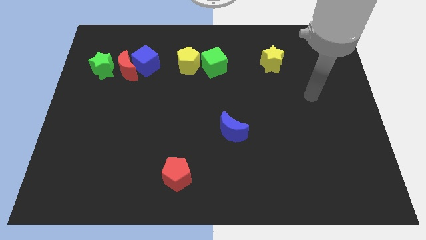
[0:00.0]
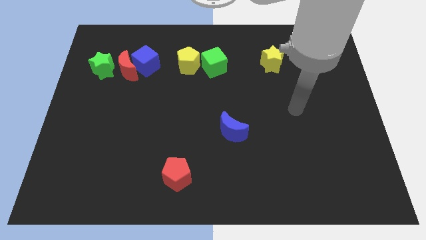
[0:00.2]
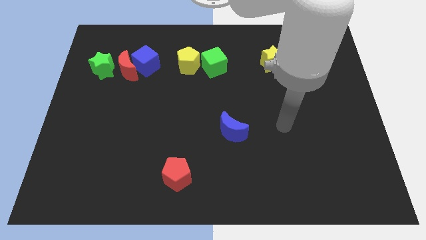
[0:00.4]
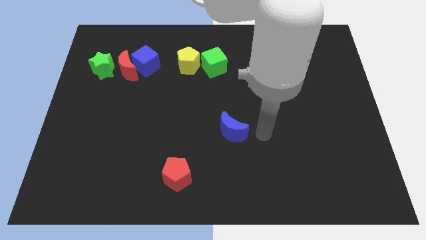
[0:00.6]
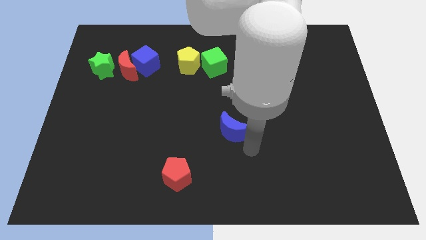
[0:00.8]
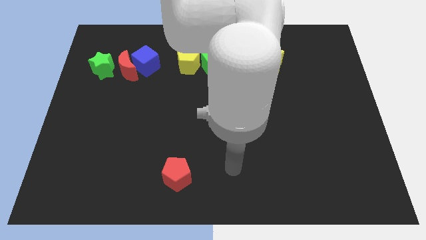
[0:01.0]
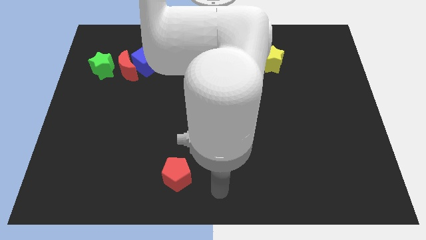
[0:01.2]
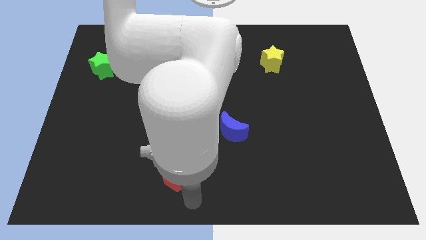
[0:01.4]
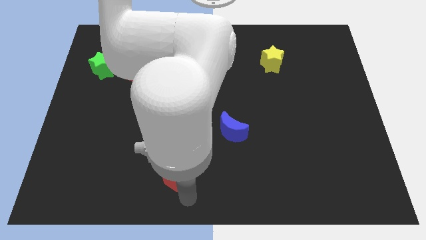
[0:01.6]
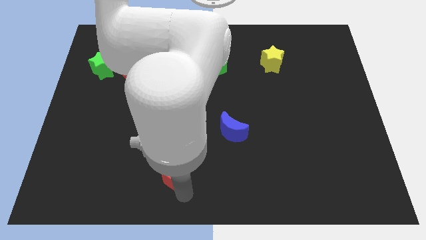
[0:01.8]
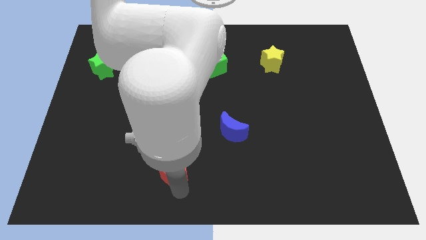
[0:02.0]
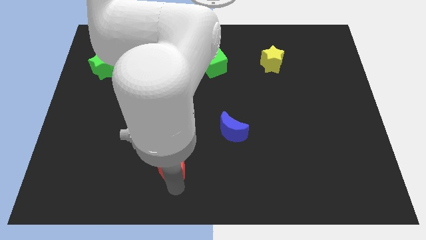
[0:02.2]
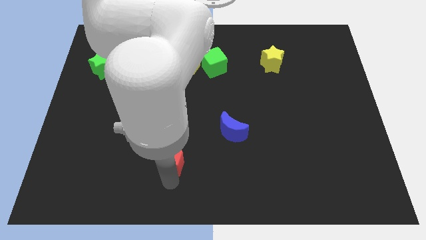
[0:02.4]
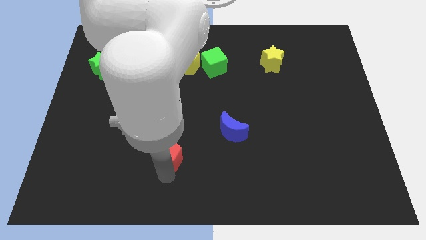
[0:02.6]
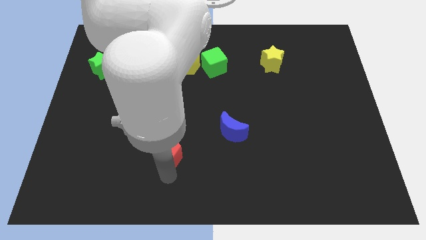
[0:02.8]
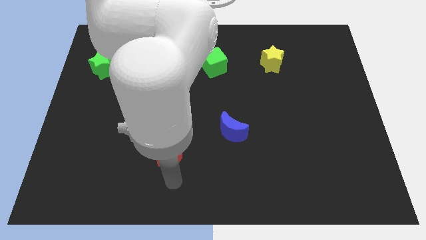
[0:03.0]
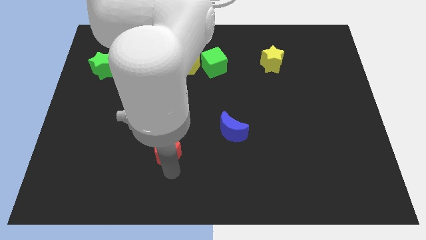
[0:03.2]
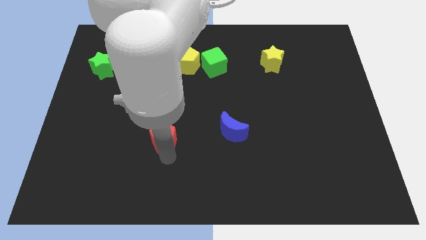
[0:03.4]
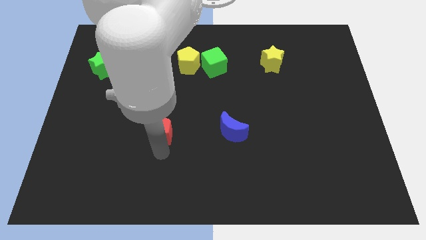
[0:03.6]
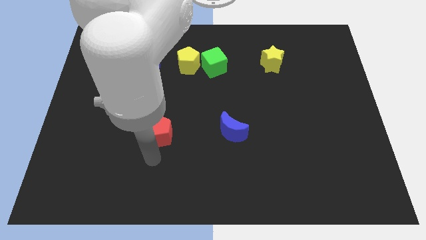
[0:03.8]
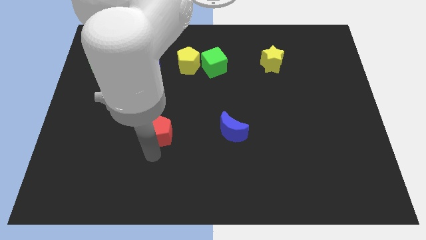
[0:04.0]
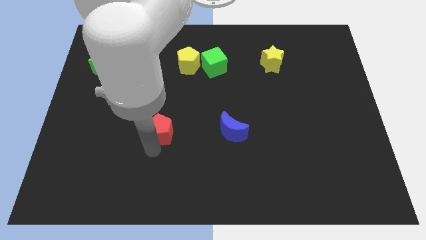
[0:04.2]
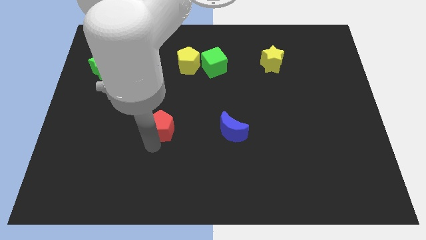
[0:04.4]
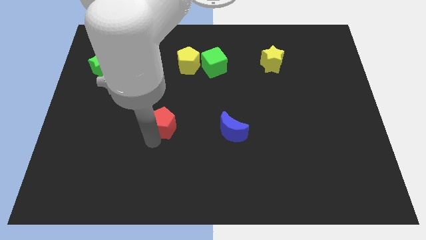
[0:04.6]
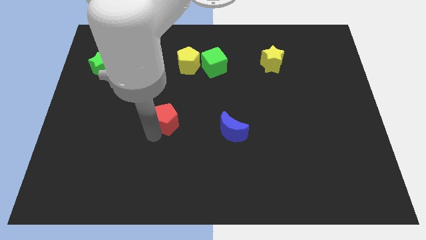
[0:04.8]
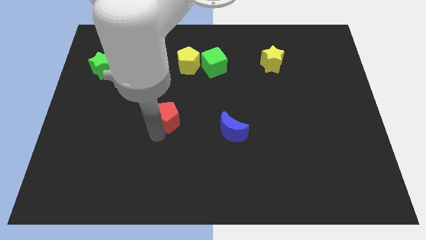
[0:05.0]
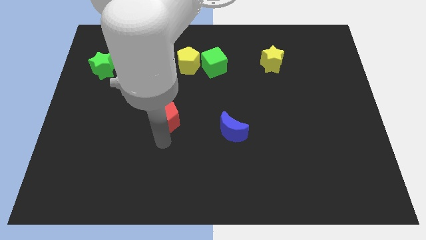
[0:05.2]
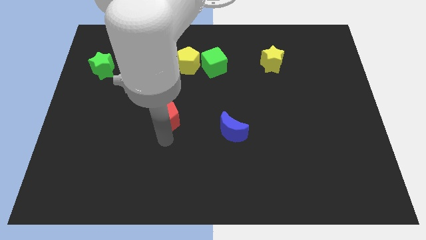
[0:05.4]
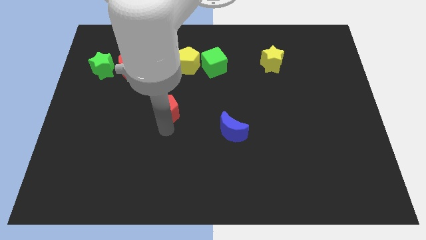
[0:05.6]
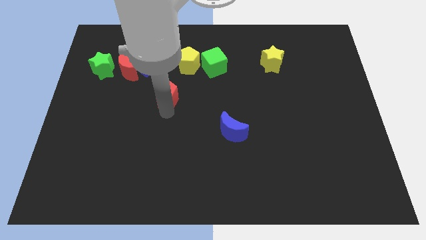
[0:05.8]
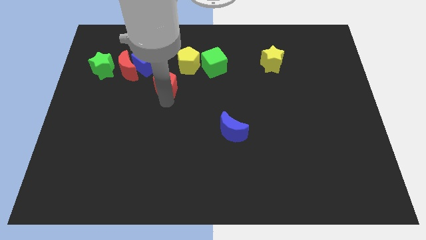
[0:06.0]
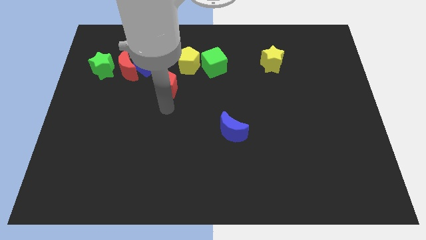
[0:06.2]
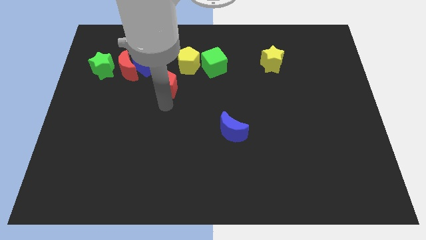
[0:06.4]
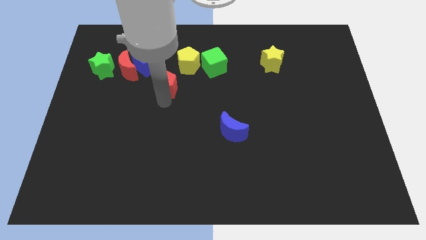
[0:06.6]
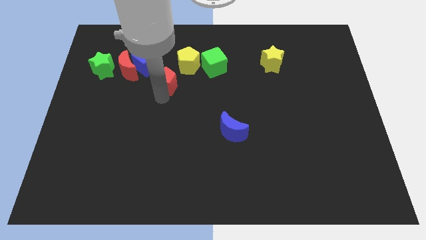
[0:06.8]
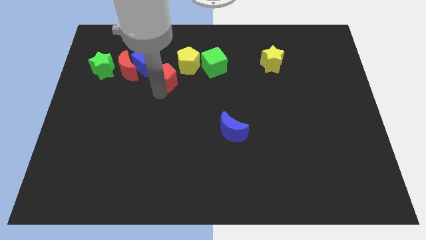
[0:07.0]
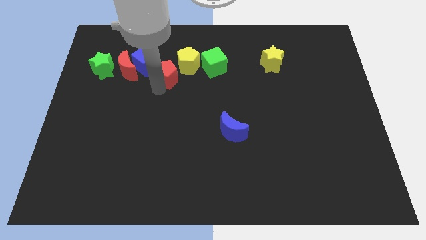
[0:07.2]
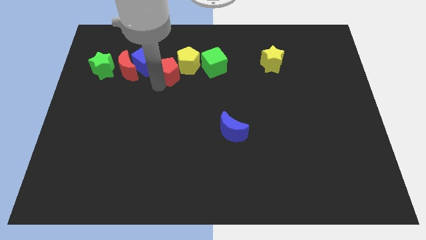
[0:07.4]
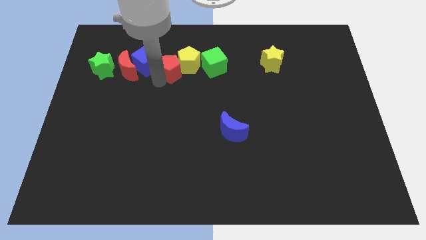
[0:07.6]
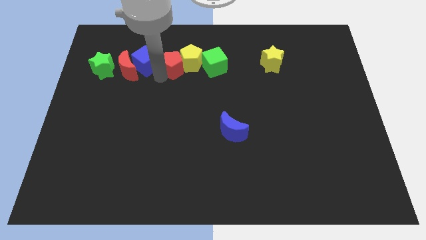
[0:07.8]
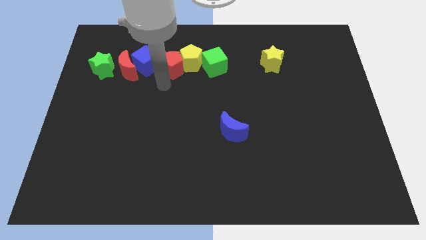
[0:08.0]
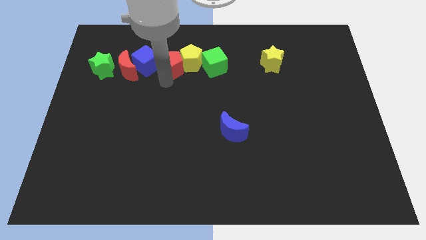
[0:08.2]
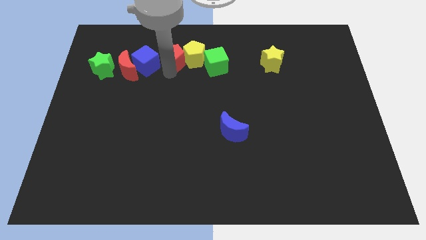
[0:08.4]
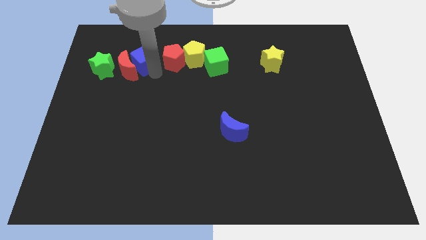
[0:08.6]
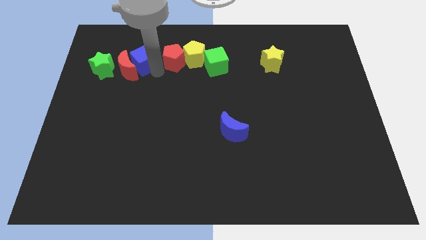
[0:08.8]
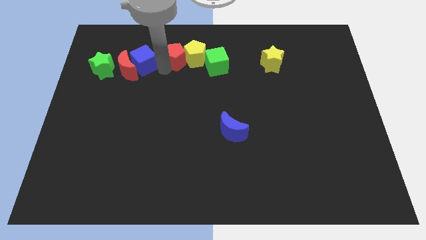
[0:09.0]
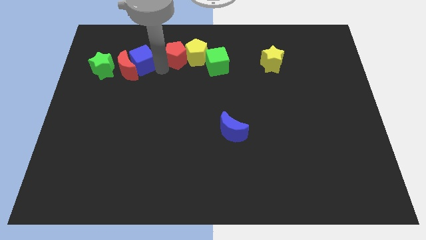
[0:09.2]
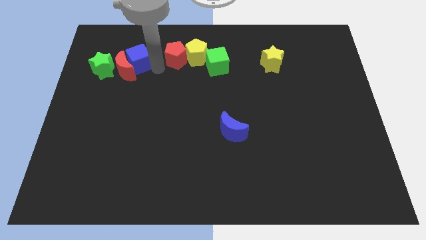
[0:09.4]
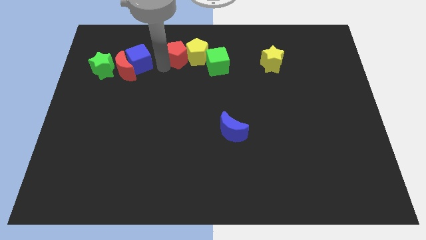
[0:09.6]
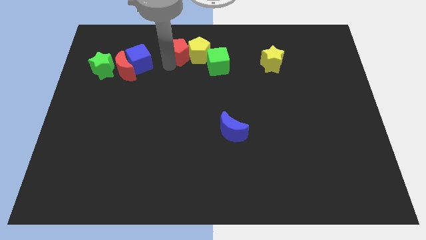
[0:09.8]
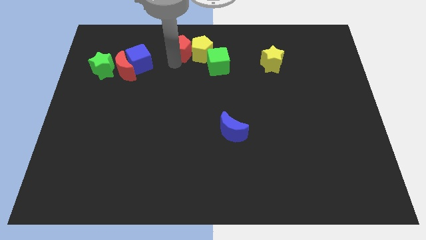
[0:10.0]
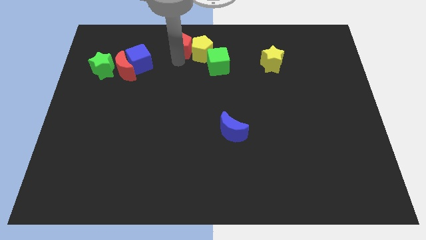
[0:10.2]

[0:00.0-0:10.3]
slide the red pentagon to the top side

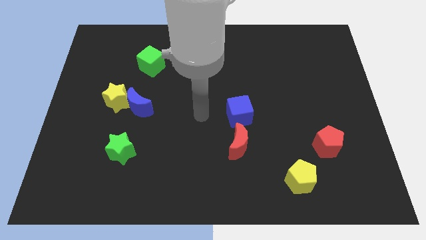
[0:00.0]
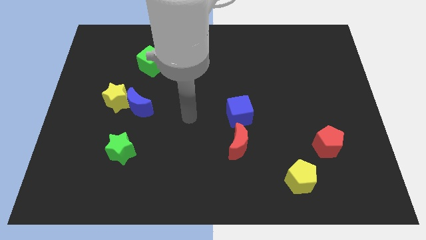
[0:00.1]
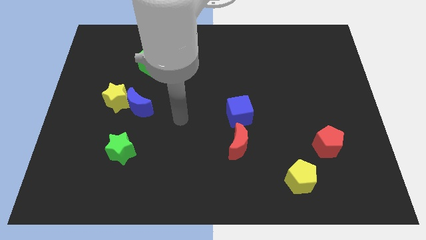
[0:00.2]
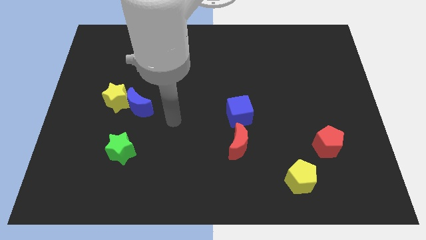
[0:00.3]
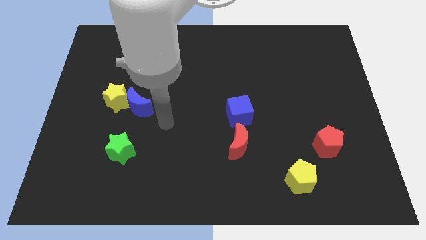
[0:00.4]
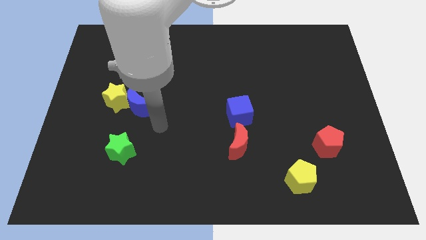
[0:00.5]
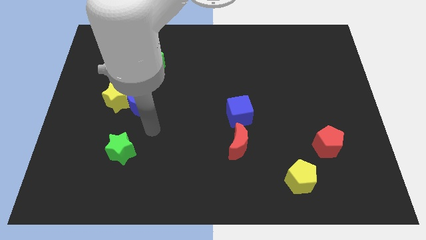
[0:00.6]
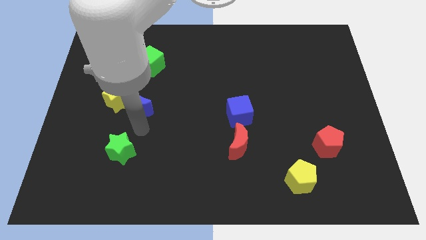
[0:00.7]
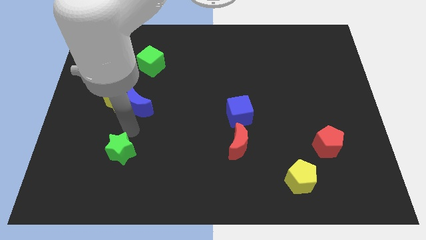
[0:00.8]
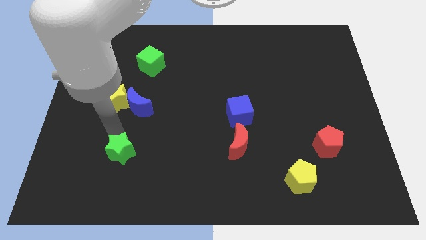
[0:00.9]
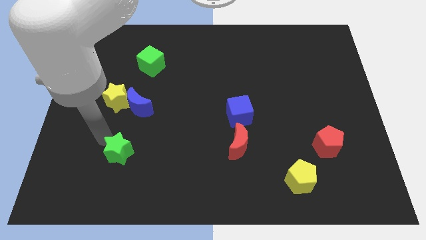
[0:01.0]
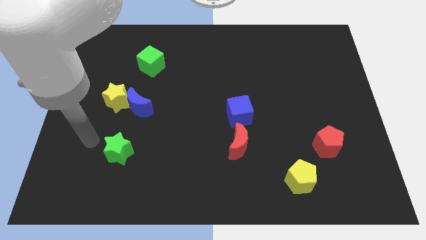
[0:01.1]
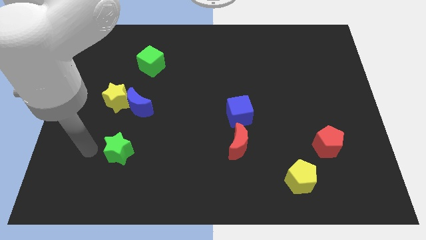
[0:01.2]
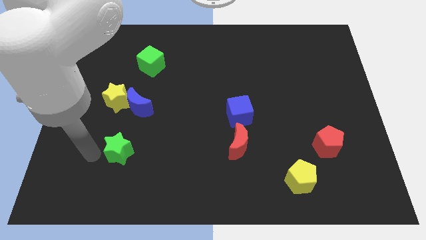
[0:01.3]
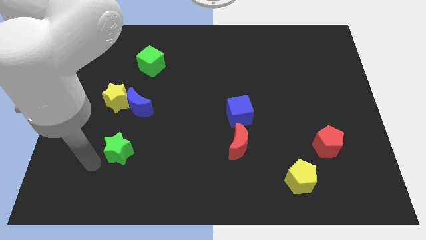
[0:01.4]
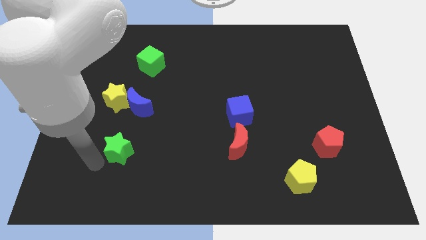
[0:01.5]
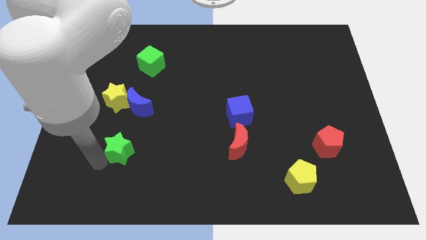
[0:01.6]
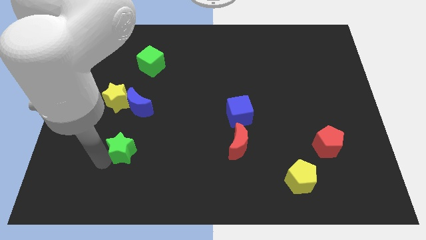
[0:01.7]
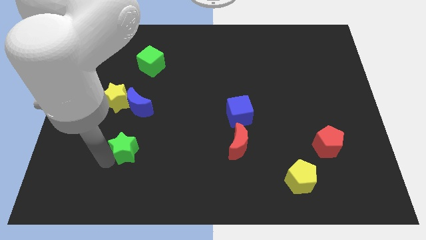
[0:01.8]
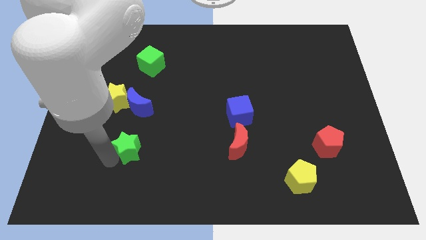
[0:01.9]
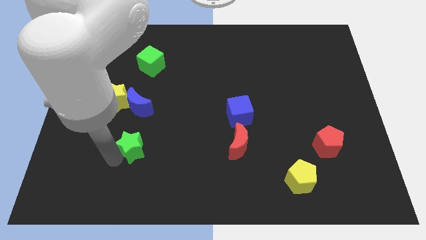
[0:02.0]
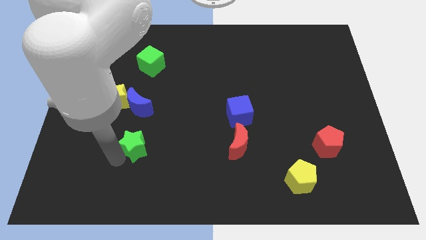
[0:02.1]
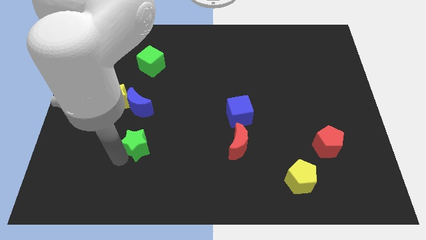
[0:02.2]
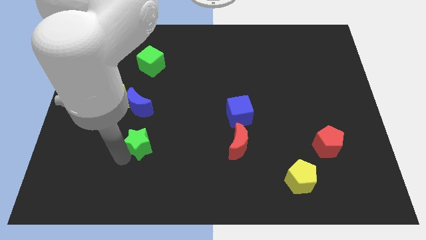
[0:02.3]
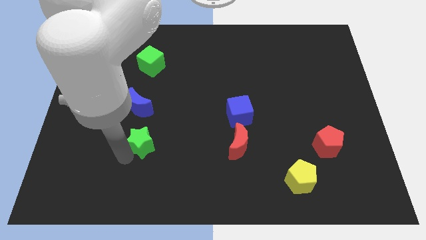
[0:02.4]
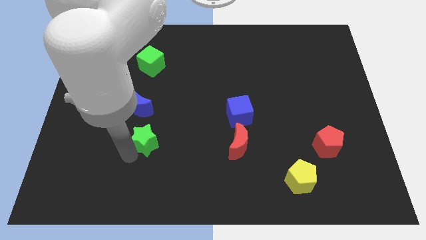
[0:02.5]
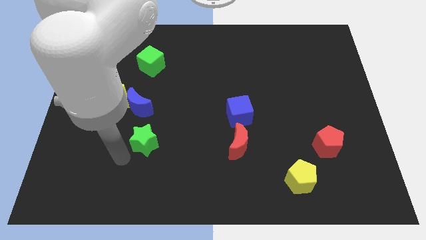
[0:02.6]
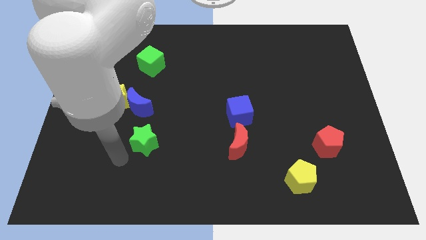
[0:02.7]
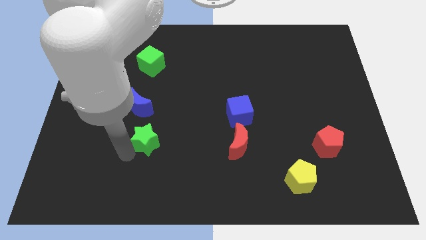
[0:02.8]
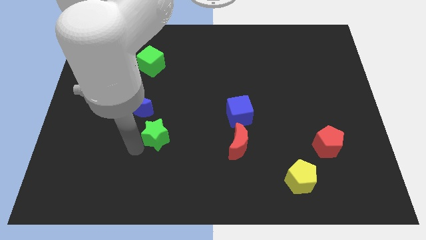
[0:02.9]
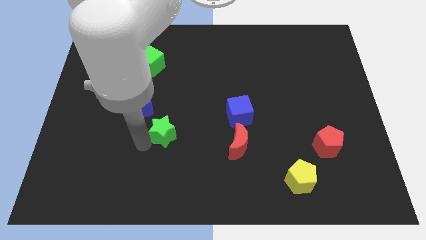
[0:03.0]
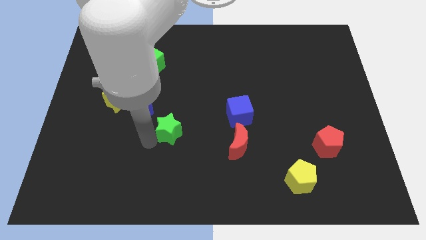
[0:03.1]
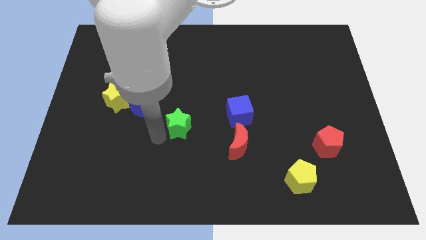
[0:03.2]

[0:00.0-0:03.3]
put the green star to the center
